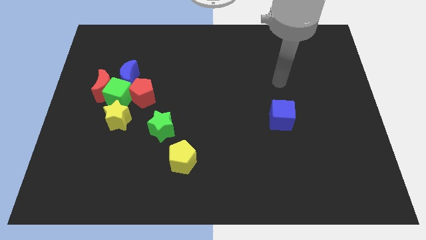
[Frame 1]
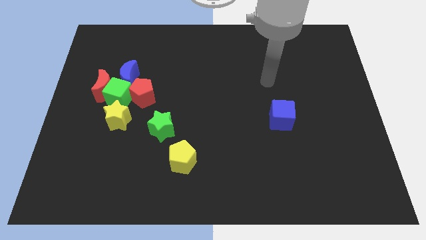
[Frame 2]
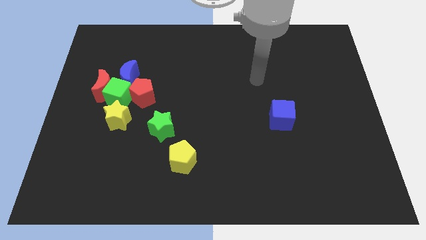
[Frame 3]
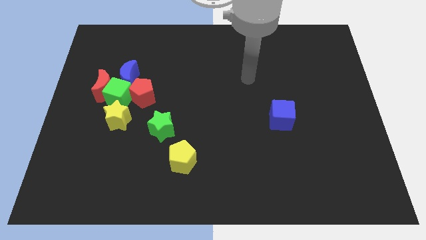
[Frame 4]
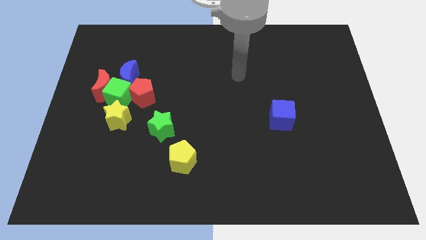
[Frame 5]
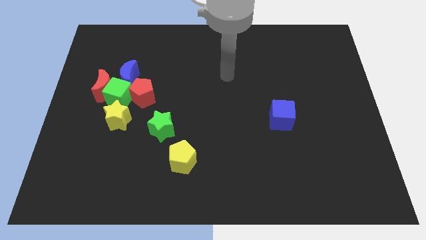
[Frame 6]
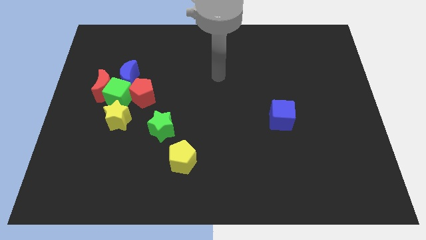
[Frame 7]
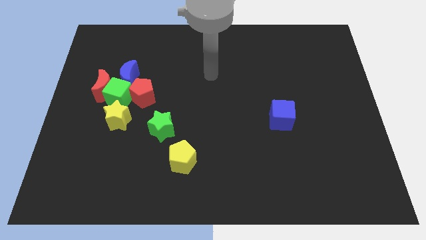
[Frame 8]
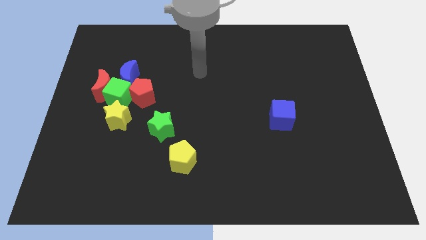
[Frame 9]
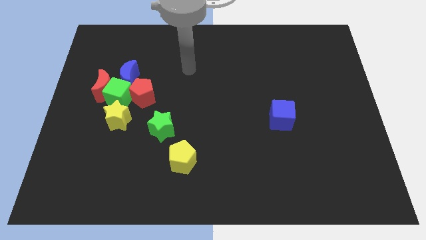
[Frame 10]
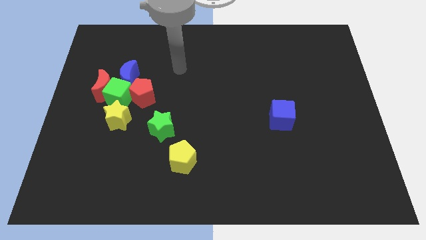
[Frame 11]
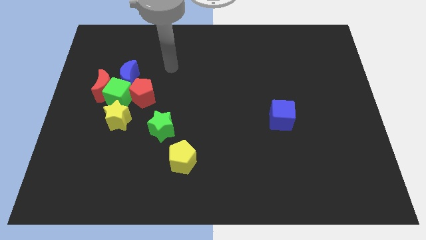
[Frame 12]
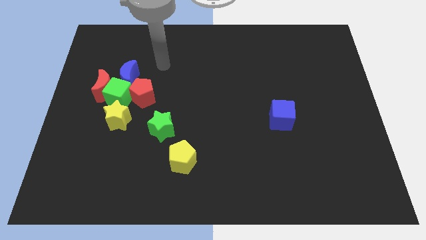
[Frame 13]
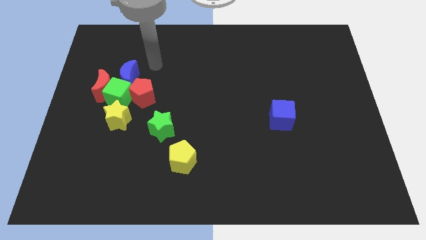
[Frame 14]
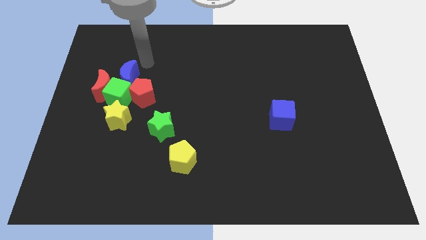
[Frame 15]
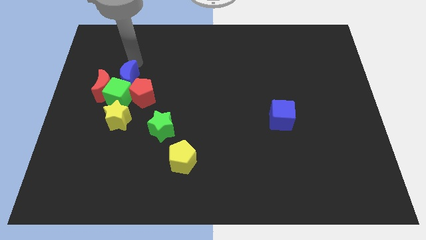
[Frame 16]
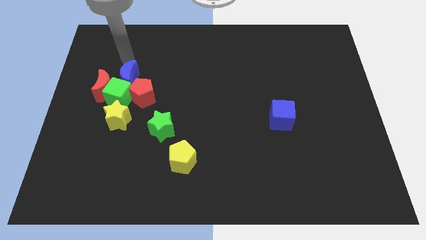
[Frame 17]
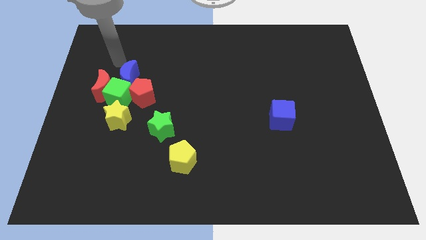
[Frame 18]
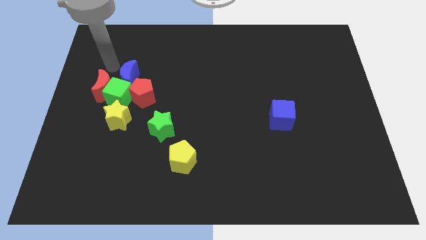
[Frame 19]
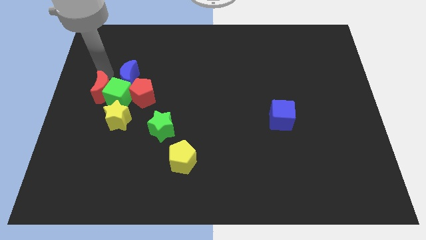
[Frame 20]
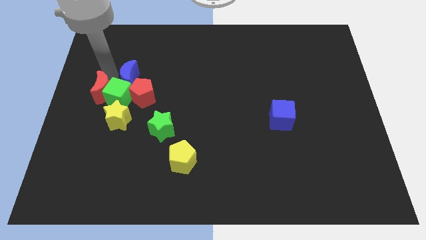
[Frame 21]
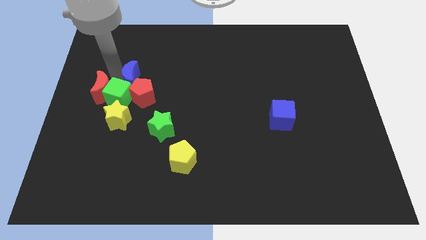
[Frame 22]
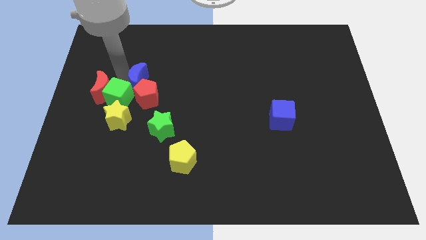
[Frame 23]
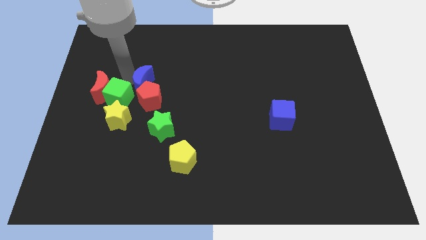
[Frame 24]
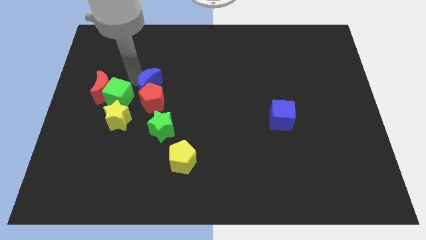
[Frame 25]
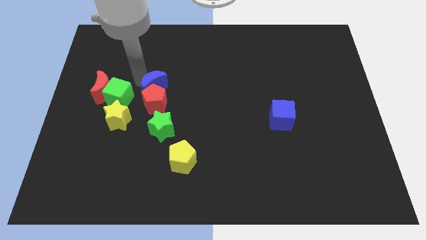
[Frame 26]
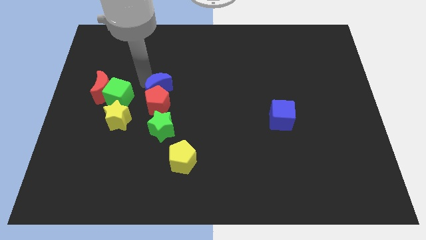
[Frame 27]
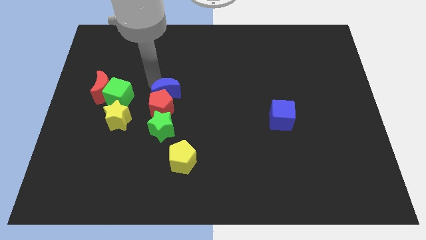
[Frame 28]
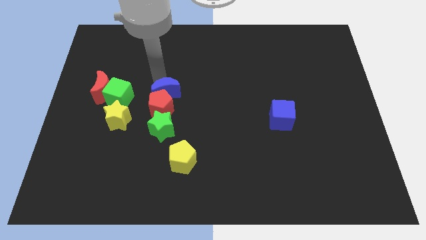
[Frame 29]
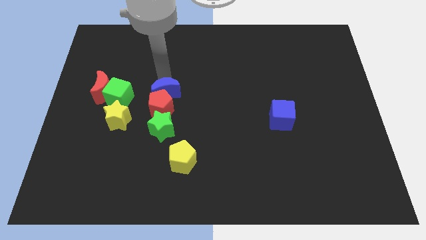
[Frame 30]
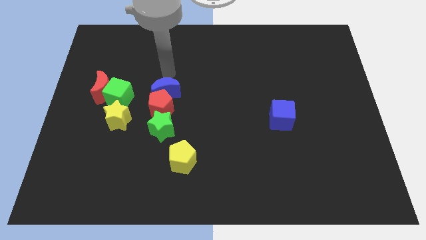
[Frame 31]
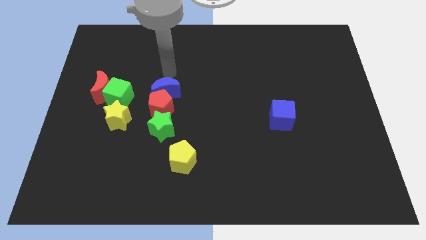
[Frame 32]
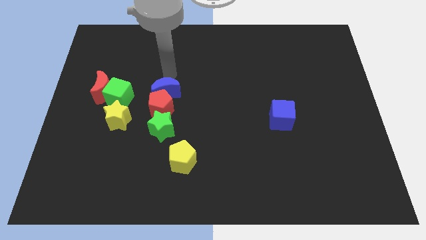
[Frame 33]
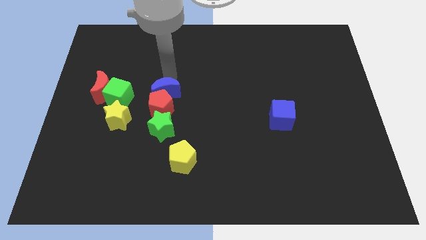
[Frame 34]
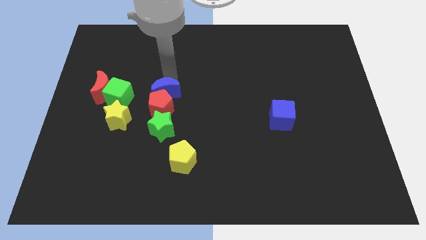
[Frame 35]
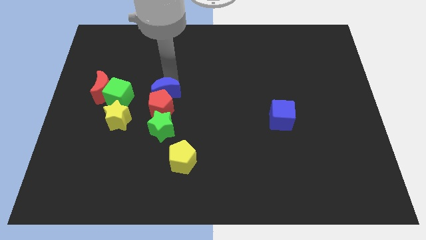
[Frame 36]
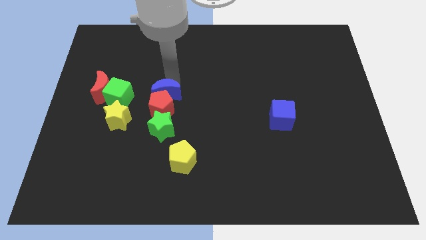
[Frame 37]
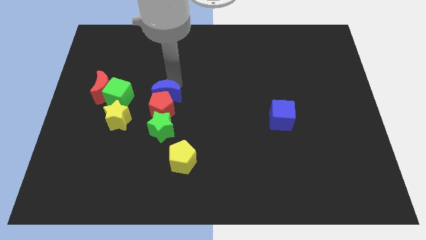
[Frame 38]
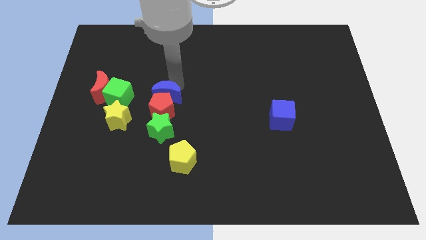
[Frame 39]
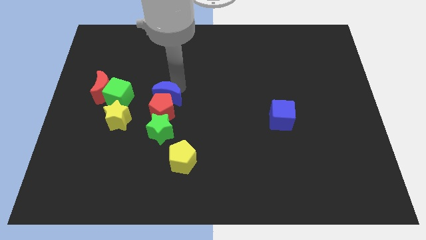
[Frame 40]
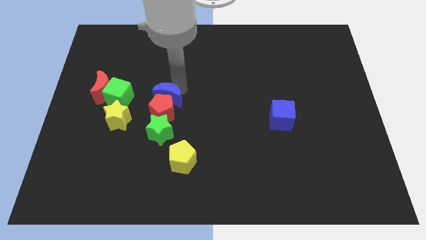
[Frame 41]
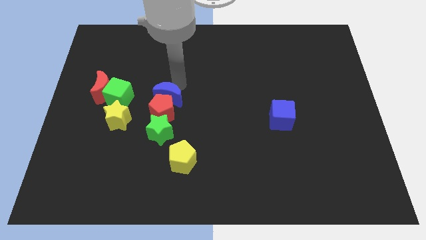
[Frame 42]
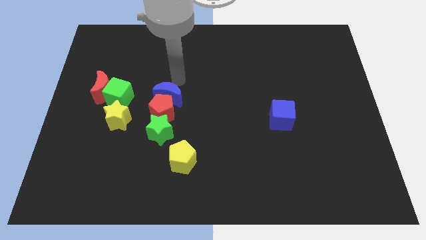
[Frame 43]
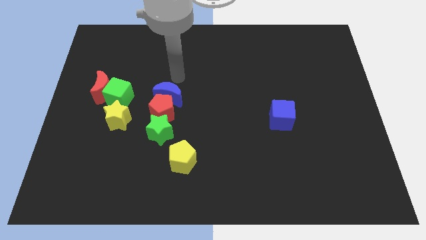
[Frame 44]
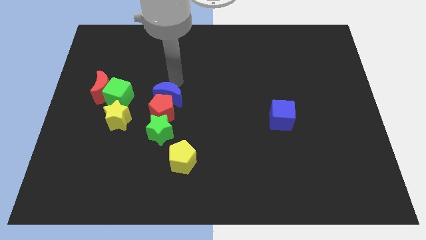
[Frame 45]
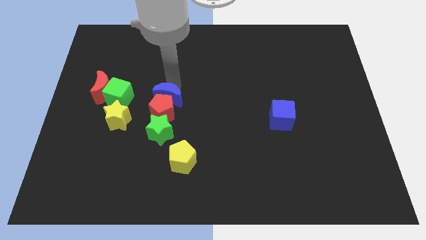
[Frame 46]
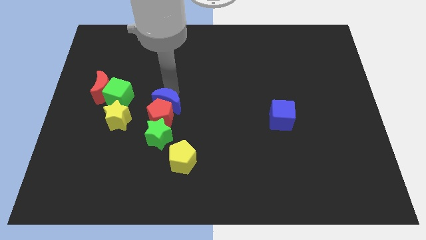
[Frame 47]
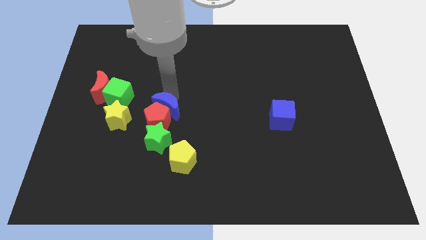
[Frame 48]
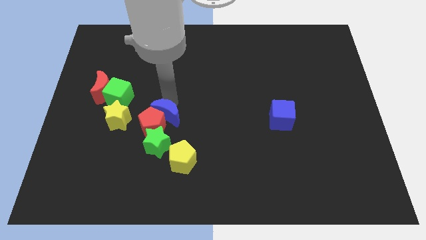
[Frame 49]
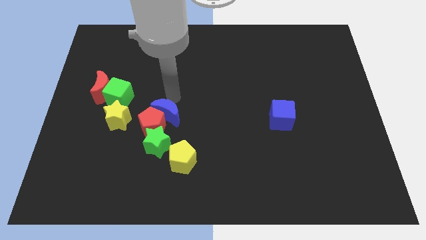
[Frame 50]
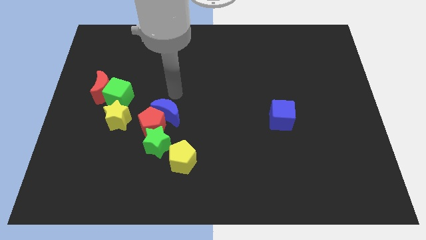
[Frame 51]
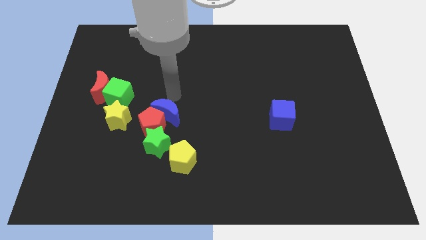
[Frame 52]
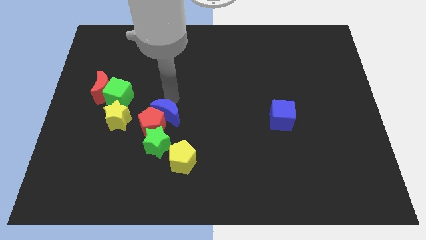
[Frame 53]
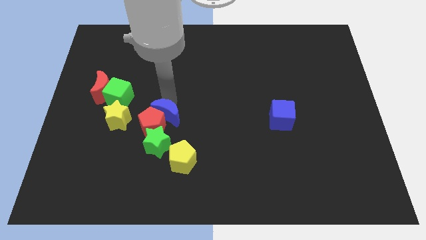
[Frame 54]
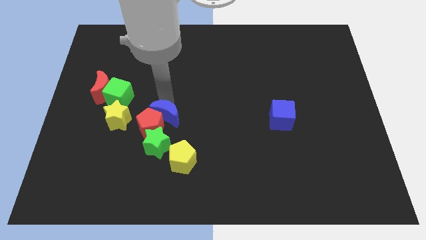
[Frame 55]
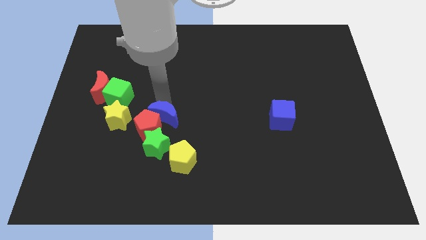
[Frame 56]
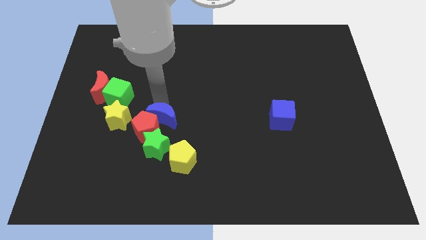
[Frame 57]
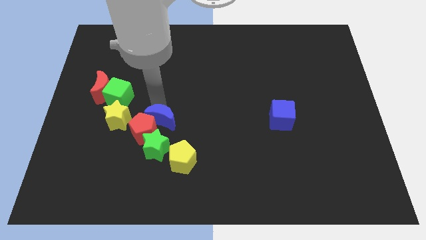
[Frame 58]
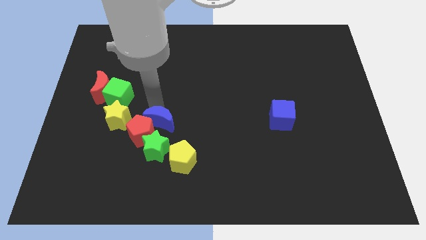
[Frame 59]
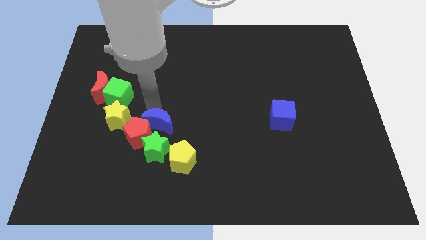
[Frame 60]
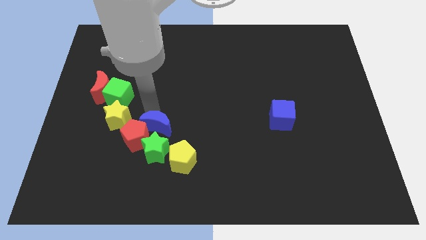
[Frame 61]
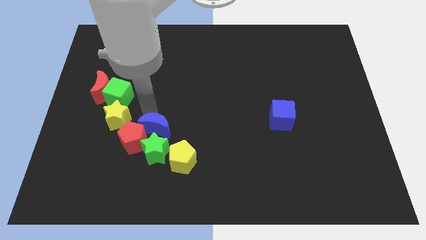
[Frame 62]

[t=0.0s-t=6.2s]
put the blue moon next to the green star
